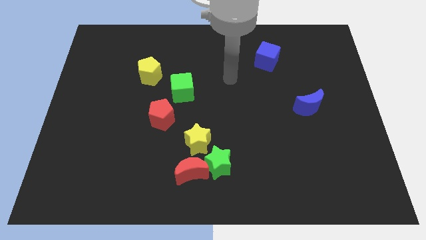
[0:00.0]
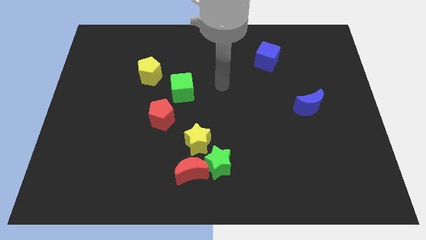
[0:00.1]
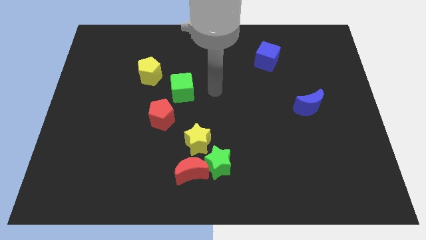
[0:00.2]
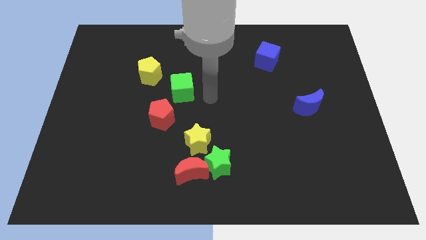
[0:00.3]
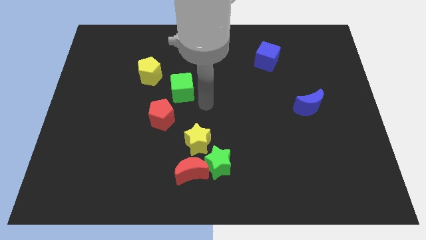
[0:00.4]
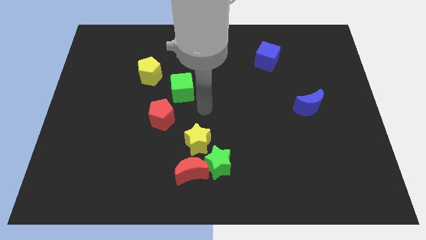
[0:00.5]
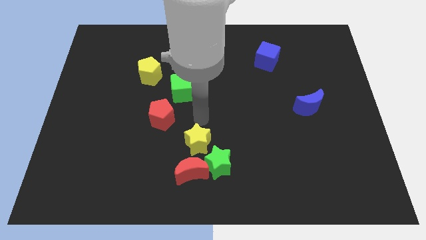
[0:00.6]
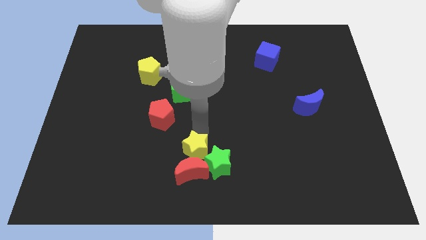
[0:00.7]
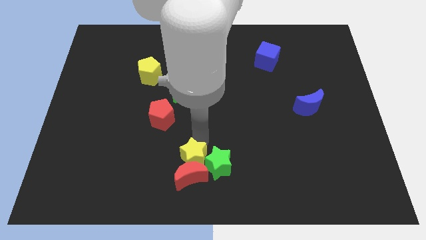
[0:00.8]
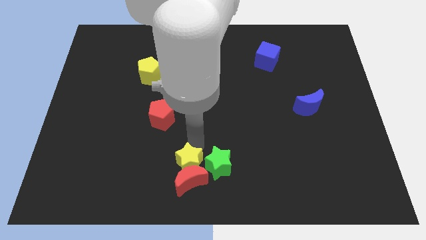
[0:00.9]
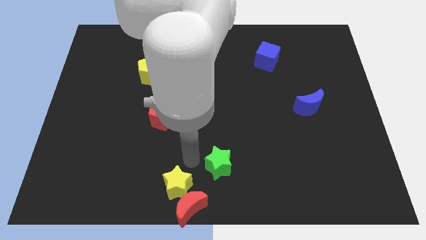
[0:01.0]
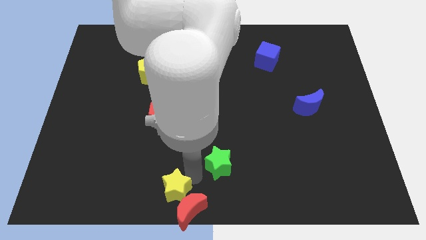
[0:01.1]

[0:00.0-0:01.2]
pull the green star apart from the red moon and yellow star

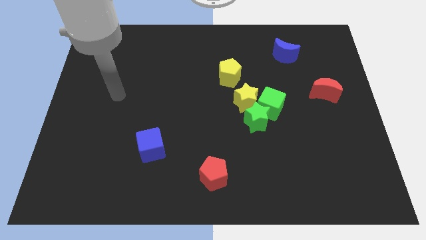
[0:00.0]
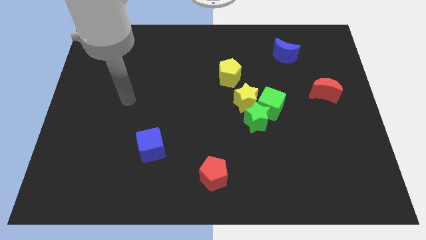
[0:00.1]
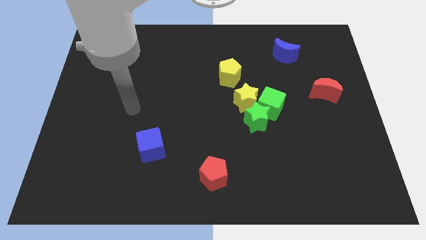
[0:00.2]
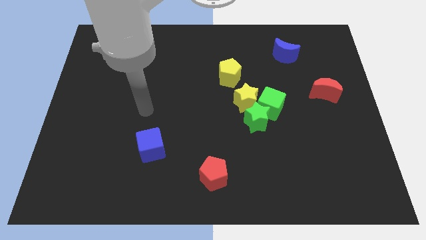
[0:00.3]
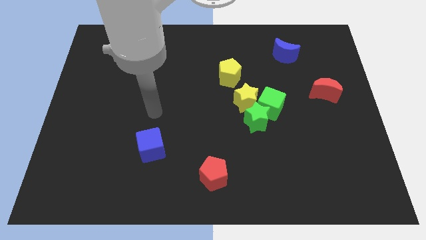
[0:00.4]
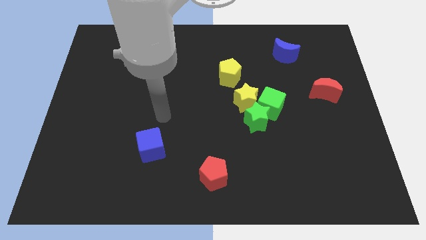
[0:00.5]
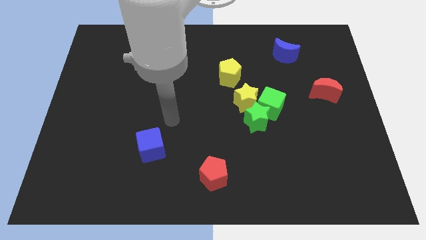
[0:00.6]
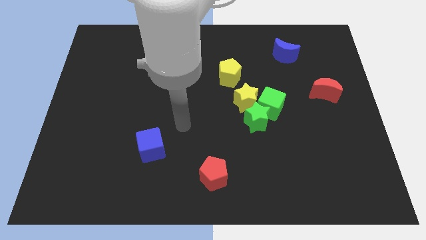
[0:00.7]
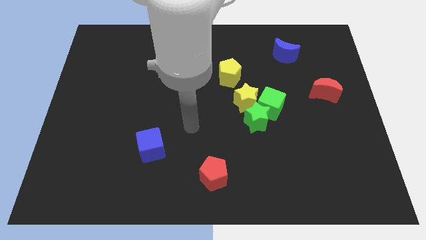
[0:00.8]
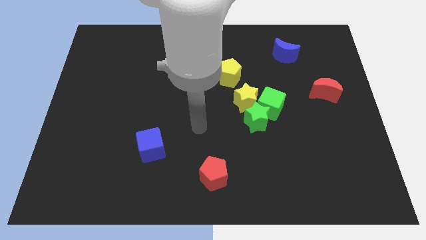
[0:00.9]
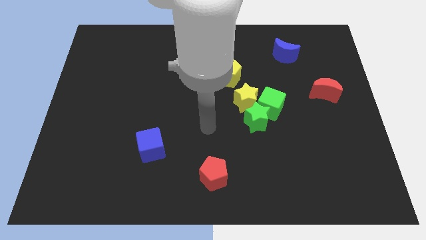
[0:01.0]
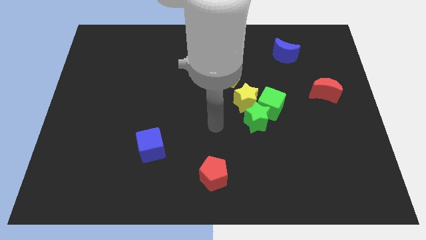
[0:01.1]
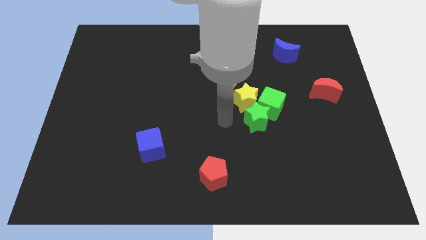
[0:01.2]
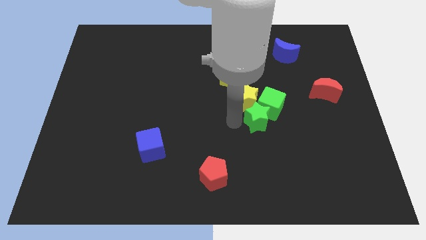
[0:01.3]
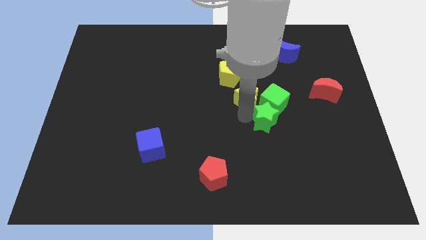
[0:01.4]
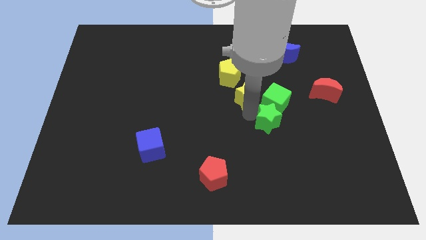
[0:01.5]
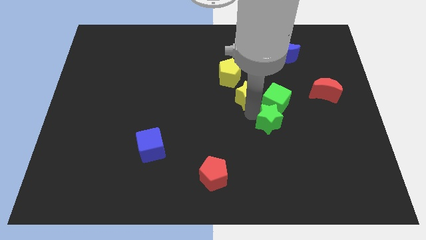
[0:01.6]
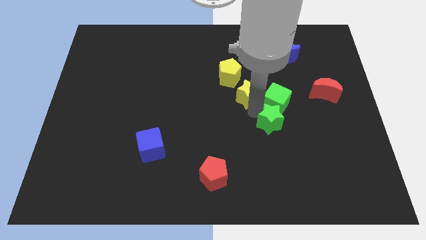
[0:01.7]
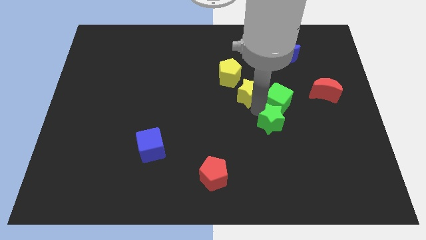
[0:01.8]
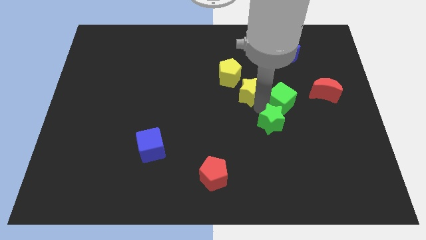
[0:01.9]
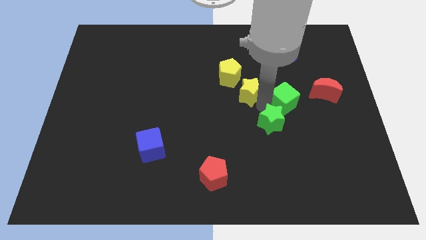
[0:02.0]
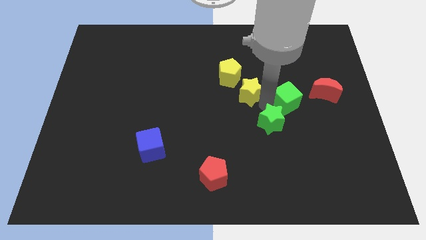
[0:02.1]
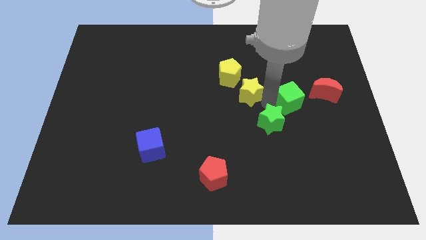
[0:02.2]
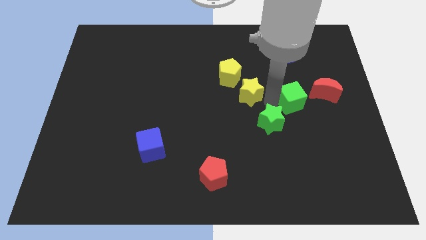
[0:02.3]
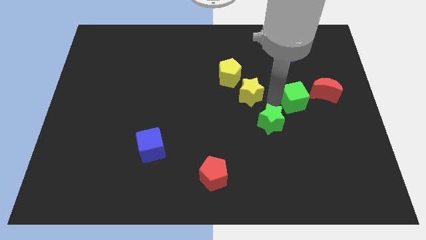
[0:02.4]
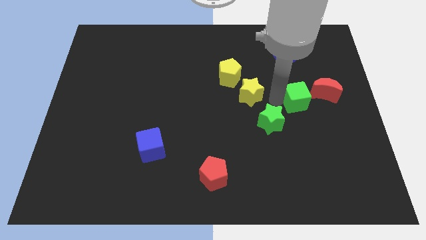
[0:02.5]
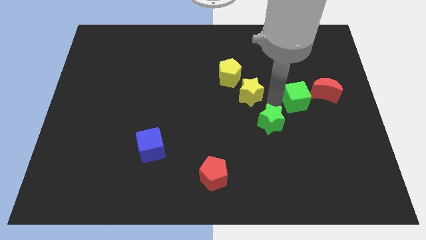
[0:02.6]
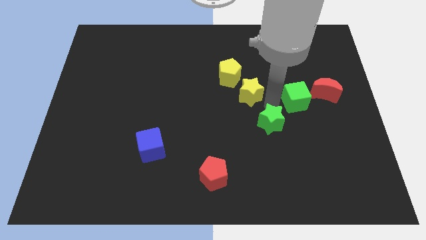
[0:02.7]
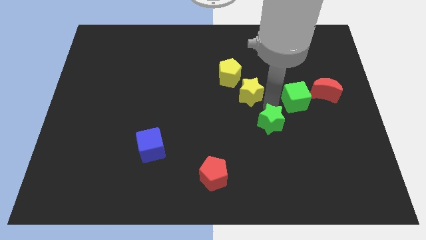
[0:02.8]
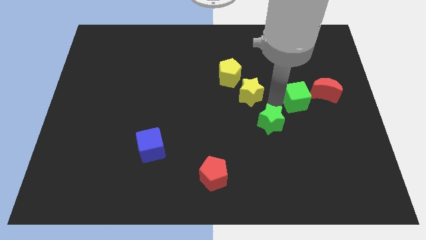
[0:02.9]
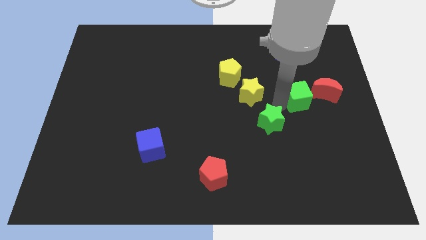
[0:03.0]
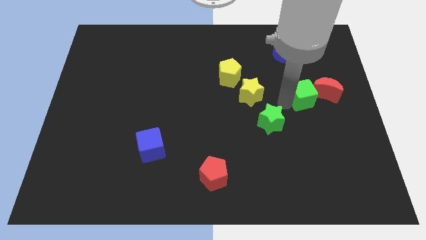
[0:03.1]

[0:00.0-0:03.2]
pull the green cube apart from the green star and yellow star

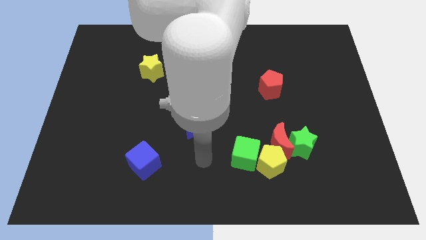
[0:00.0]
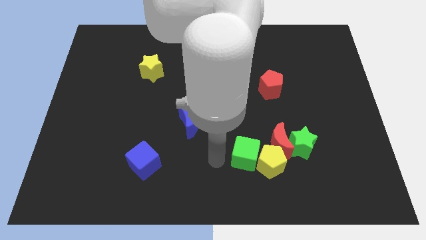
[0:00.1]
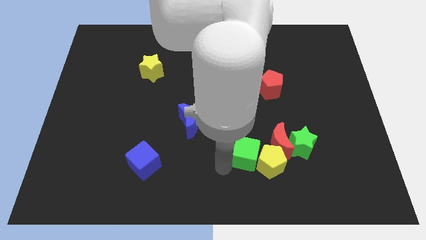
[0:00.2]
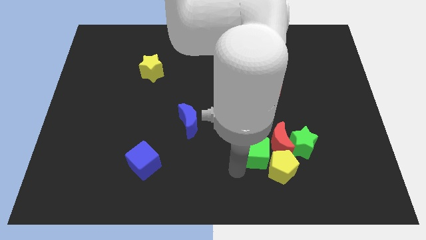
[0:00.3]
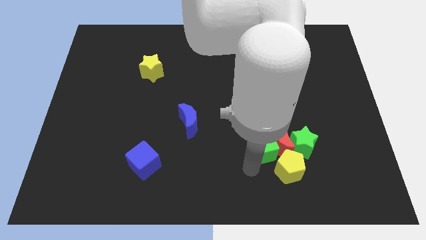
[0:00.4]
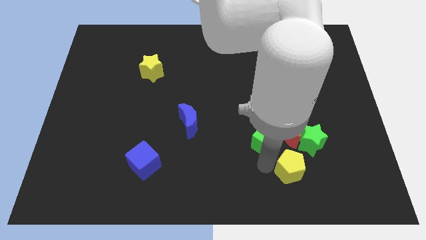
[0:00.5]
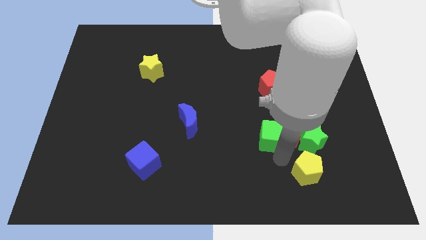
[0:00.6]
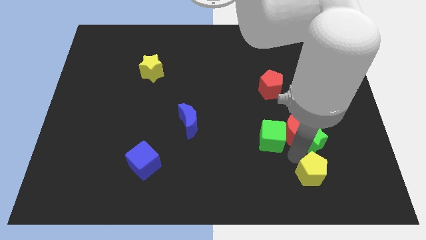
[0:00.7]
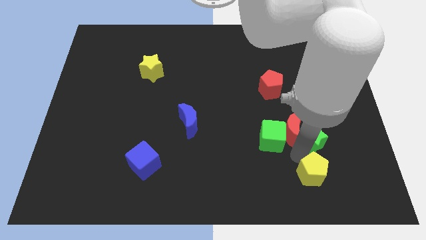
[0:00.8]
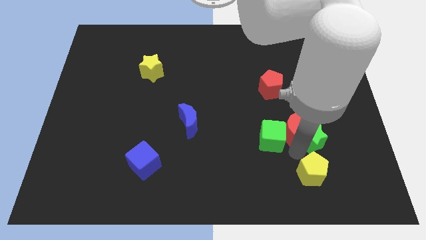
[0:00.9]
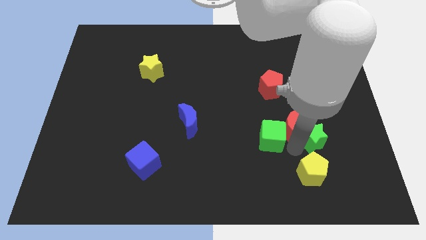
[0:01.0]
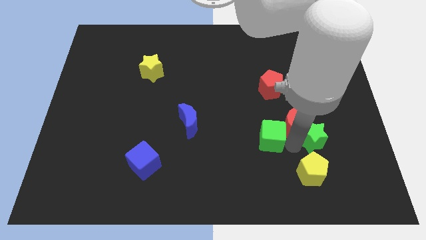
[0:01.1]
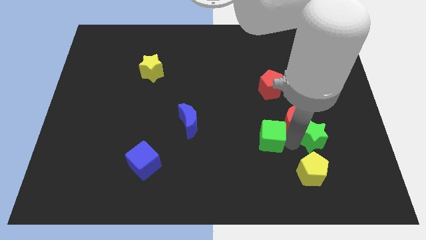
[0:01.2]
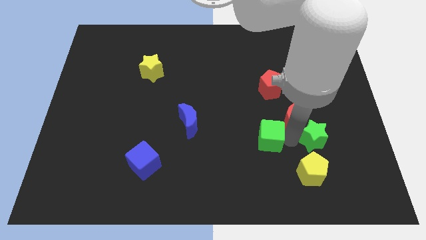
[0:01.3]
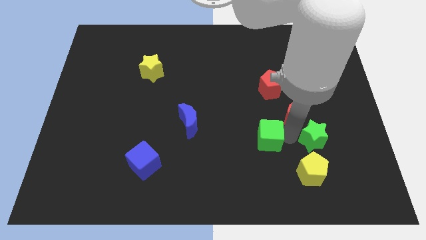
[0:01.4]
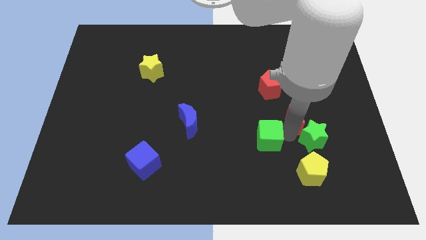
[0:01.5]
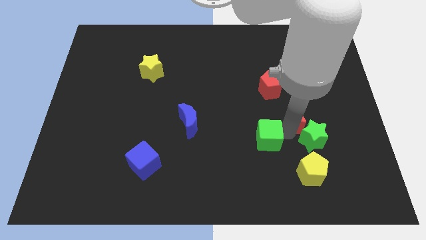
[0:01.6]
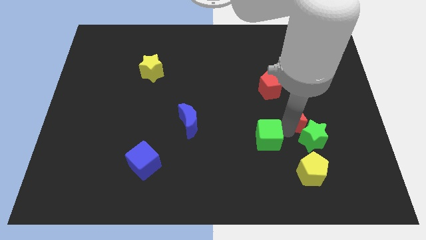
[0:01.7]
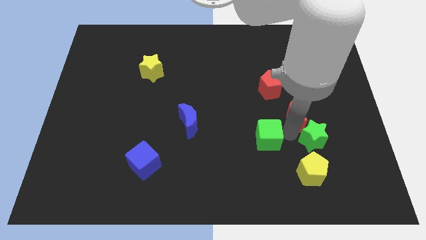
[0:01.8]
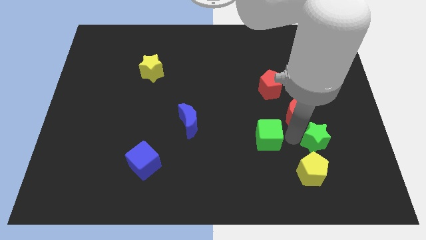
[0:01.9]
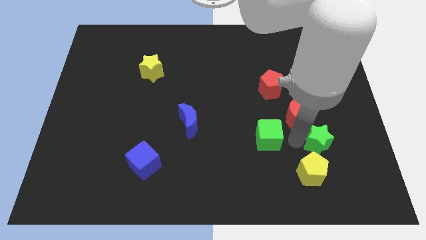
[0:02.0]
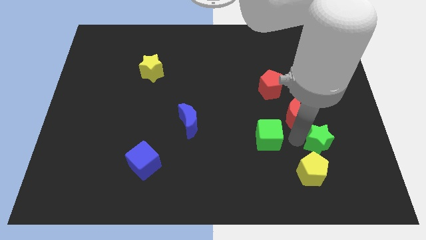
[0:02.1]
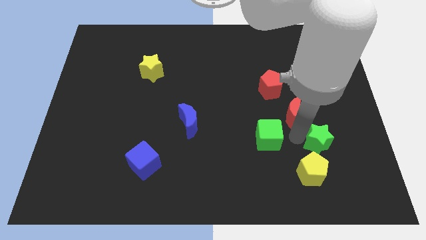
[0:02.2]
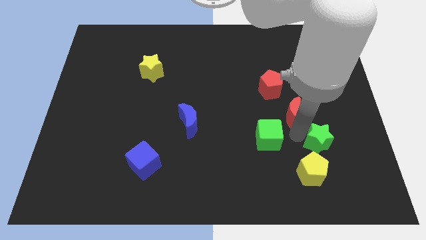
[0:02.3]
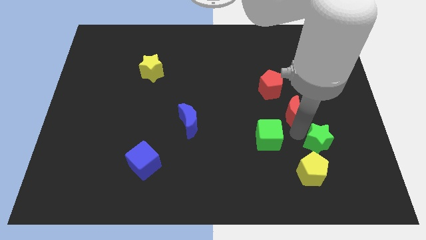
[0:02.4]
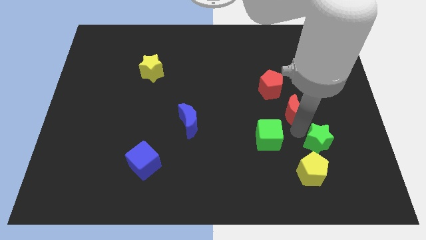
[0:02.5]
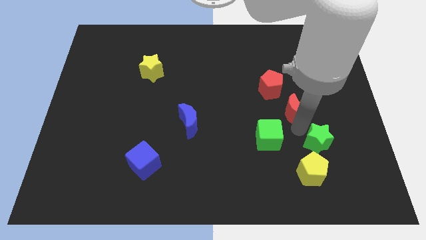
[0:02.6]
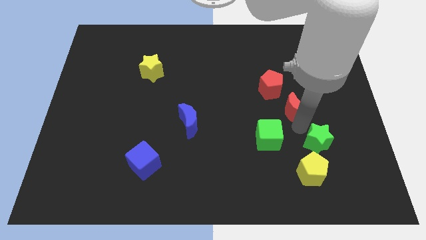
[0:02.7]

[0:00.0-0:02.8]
separate the red moon from the group of blocks

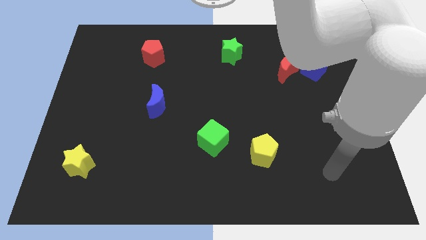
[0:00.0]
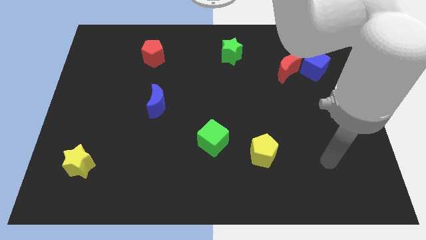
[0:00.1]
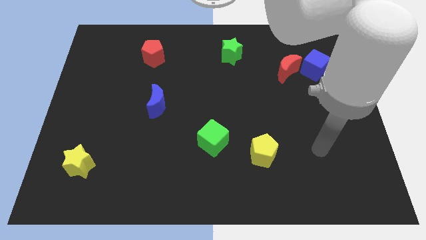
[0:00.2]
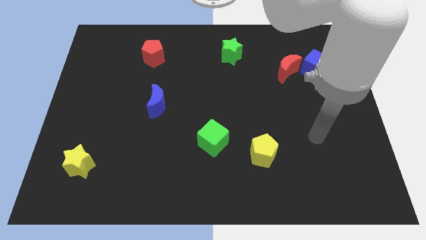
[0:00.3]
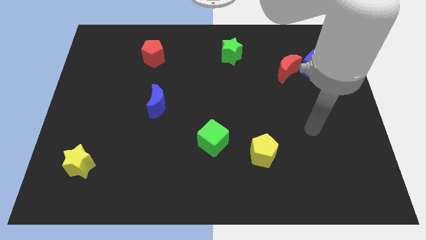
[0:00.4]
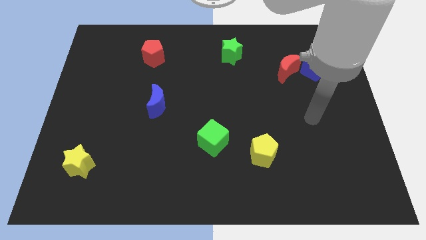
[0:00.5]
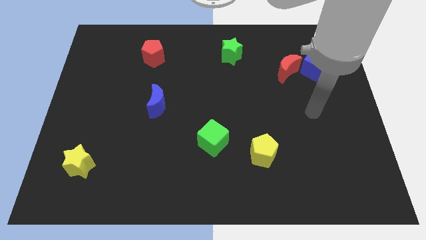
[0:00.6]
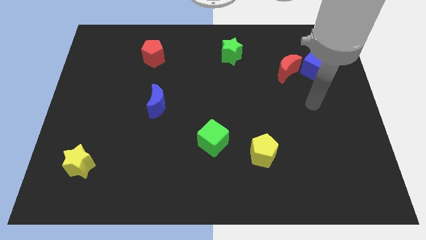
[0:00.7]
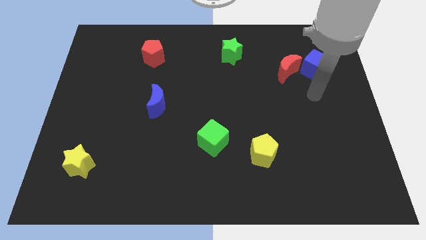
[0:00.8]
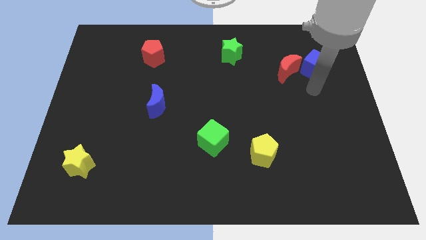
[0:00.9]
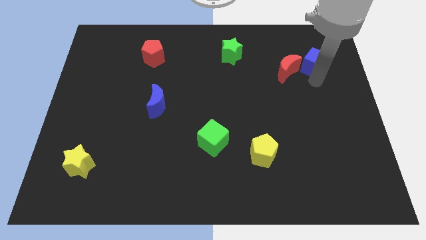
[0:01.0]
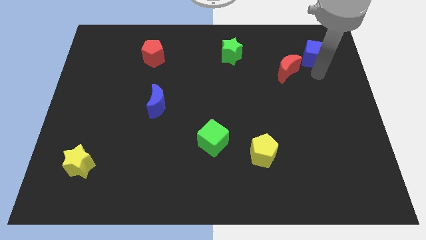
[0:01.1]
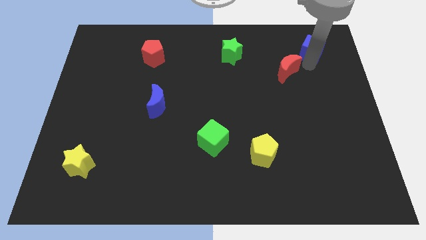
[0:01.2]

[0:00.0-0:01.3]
pull the red moon apart from the blue cube

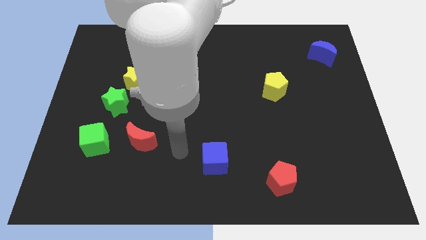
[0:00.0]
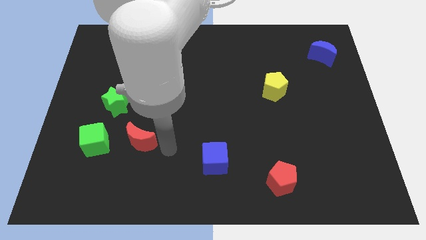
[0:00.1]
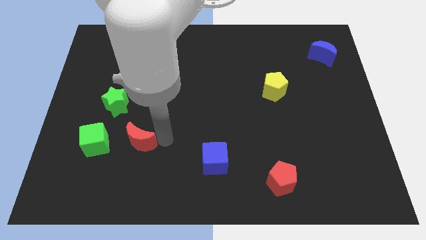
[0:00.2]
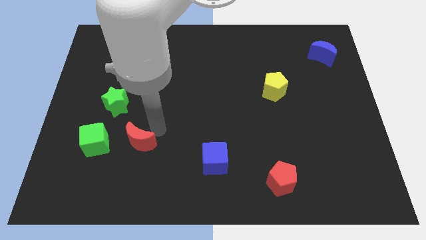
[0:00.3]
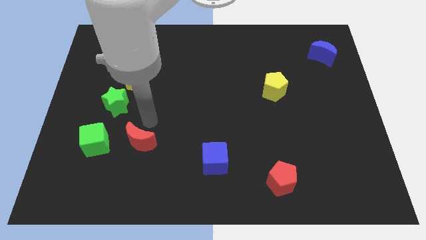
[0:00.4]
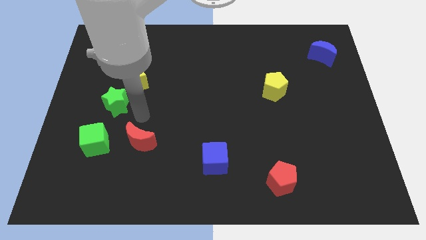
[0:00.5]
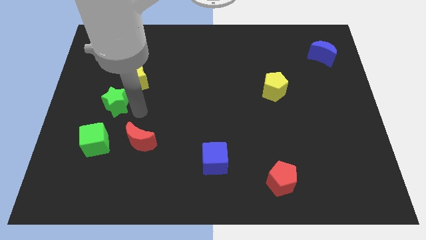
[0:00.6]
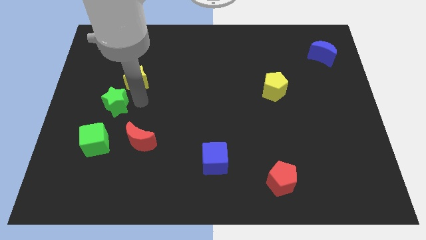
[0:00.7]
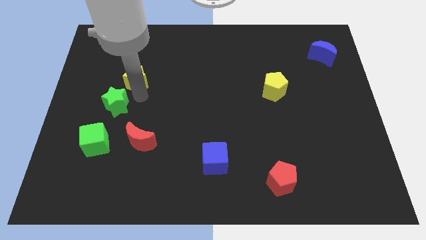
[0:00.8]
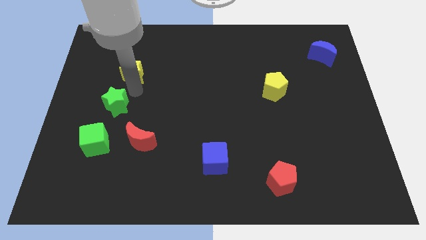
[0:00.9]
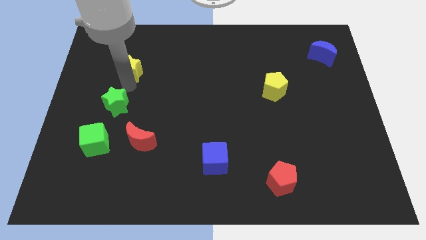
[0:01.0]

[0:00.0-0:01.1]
move the green star away from the yellow star
